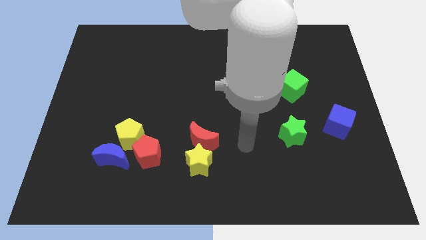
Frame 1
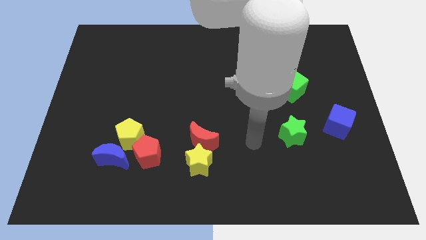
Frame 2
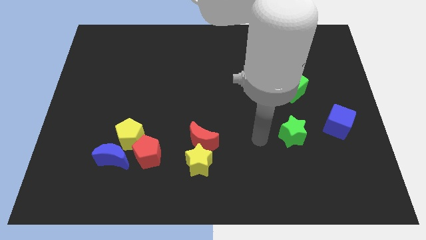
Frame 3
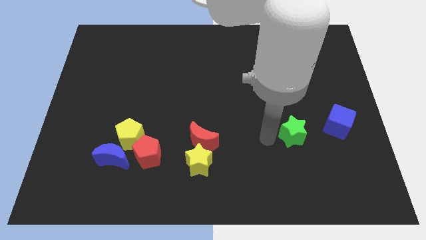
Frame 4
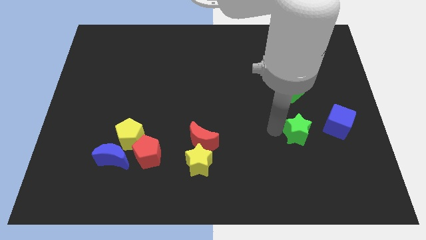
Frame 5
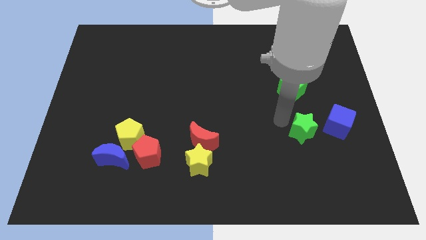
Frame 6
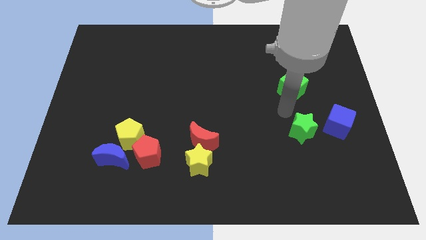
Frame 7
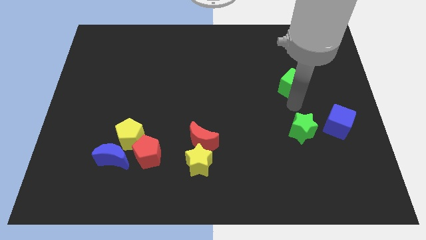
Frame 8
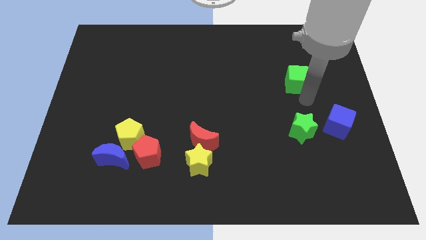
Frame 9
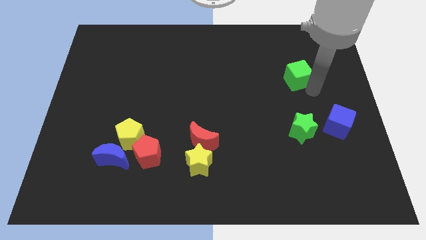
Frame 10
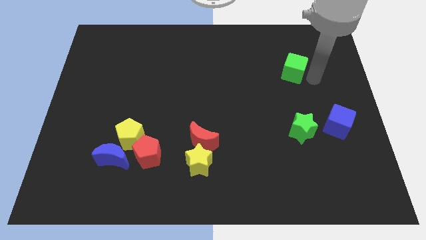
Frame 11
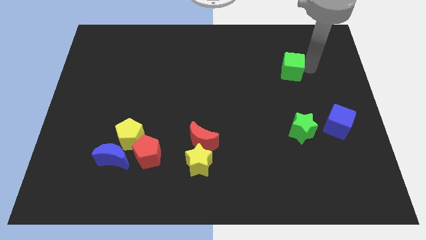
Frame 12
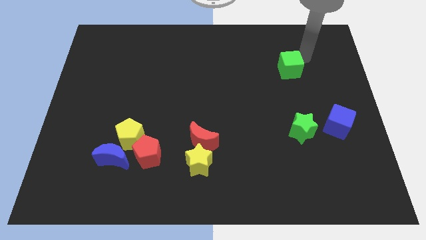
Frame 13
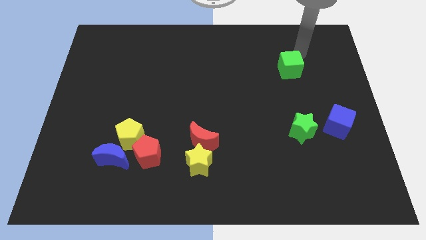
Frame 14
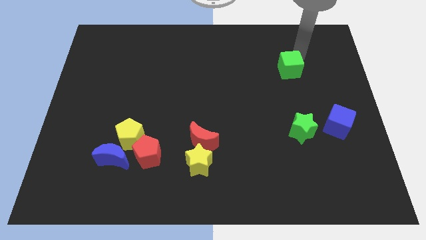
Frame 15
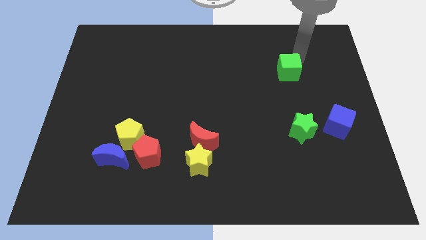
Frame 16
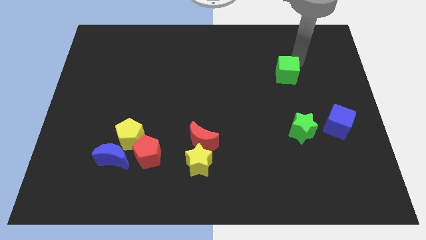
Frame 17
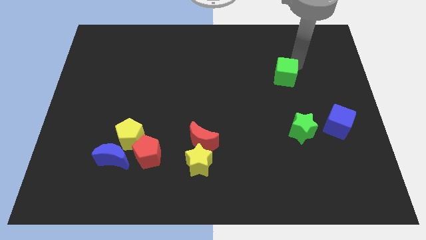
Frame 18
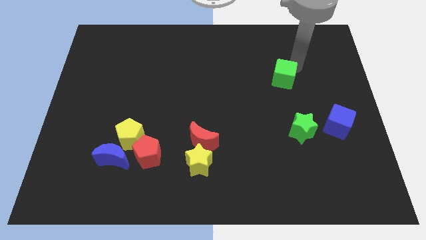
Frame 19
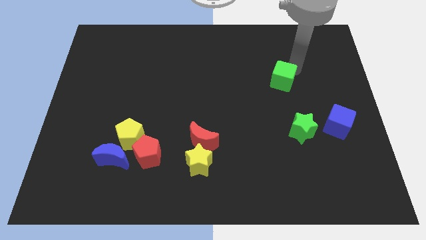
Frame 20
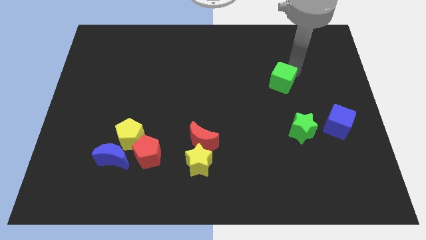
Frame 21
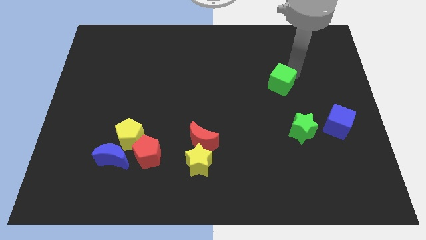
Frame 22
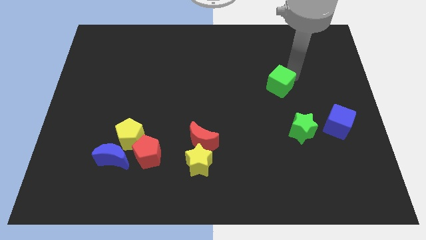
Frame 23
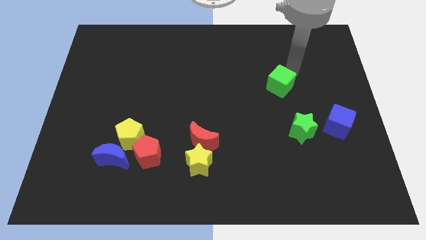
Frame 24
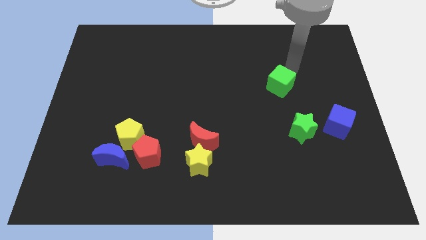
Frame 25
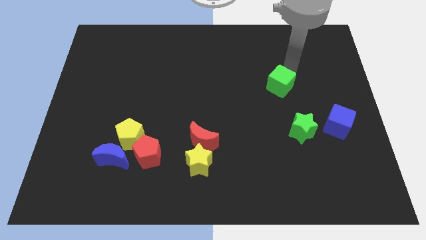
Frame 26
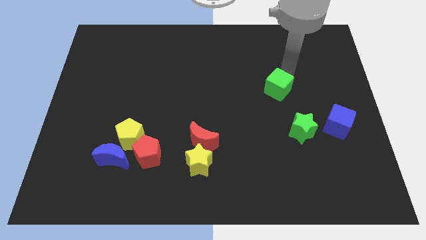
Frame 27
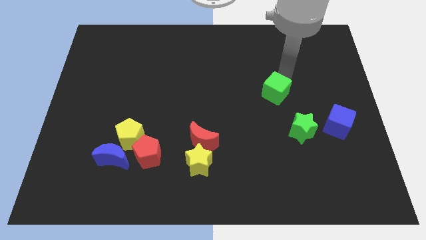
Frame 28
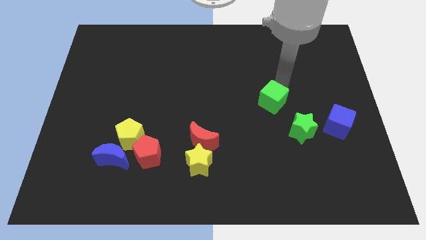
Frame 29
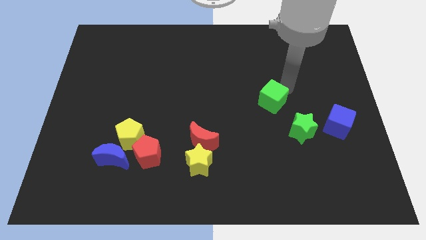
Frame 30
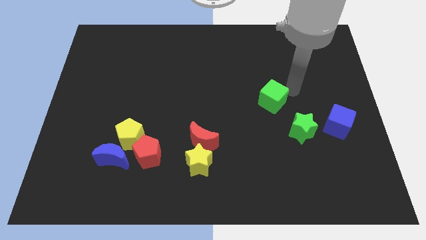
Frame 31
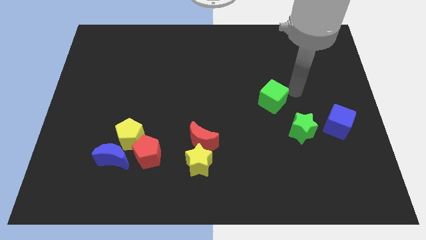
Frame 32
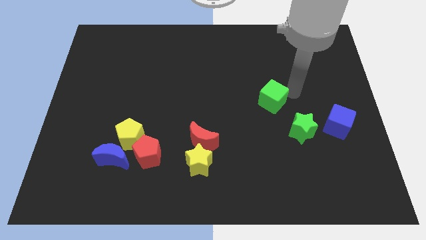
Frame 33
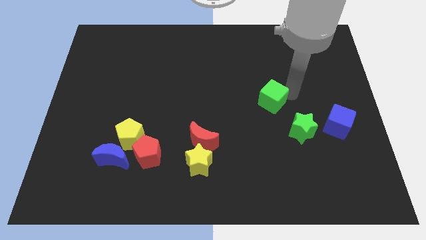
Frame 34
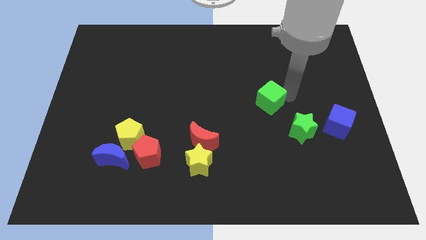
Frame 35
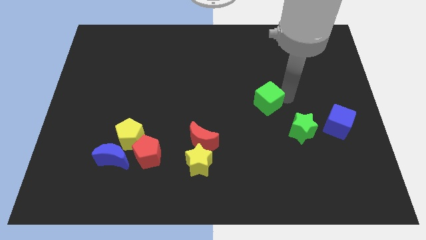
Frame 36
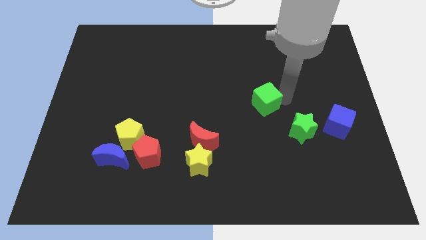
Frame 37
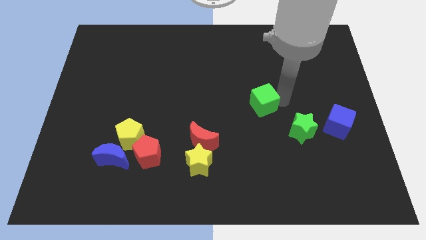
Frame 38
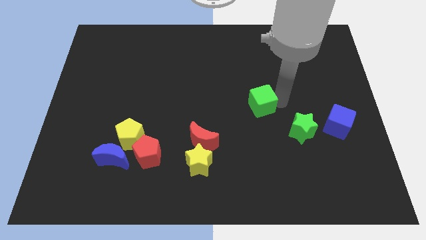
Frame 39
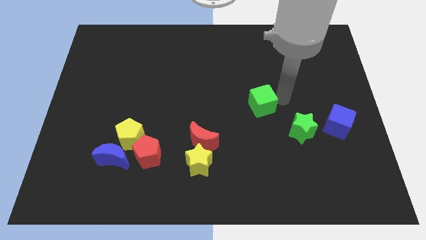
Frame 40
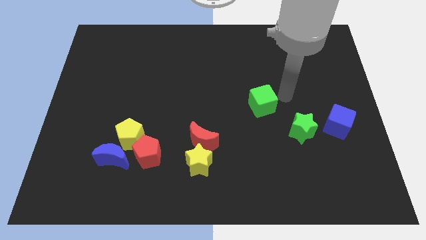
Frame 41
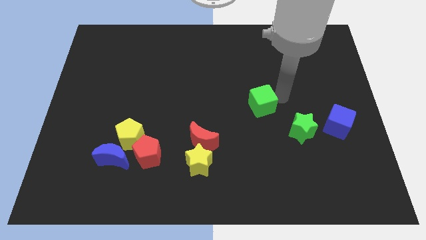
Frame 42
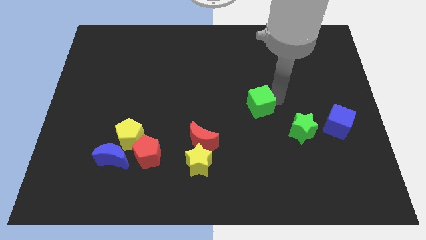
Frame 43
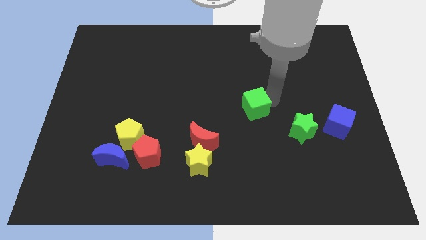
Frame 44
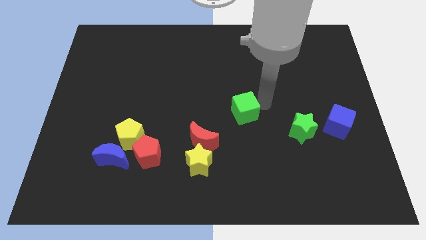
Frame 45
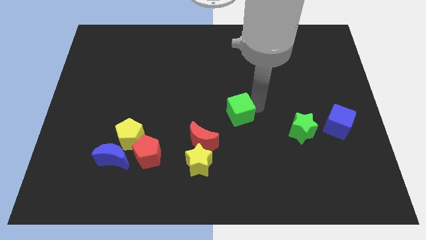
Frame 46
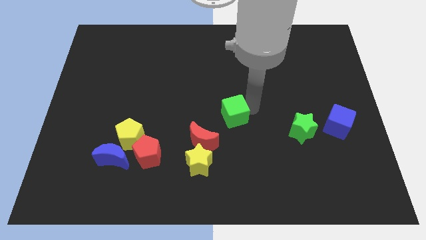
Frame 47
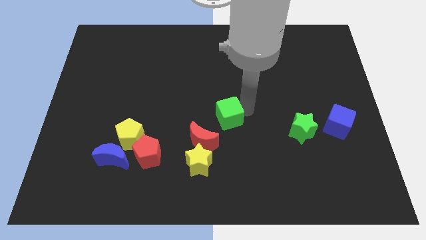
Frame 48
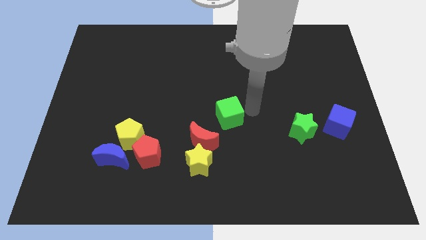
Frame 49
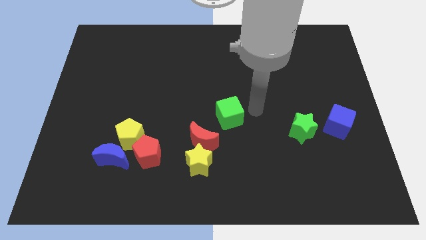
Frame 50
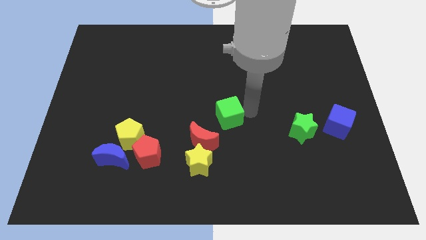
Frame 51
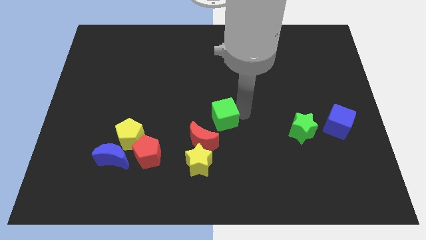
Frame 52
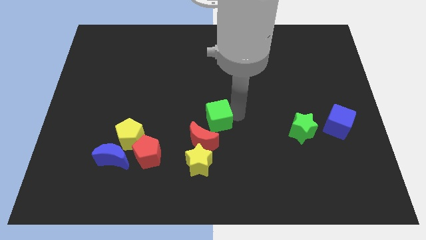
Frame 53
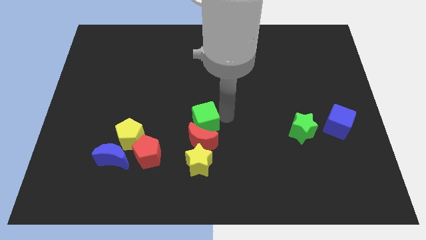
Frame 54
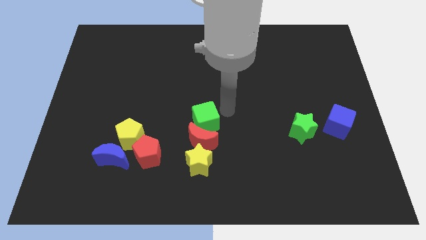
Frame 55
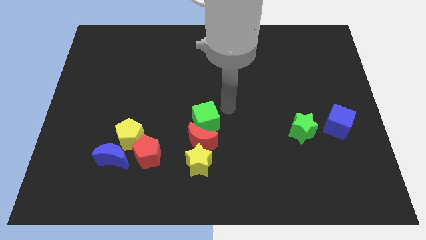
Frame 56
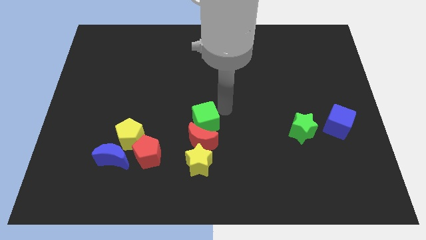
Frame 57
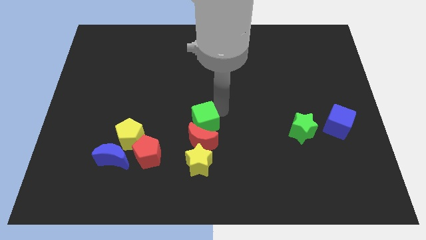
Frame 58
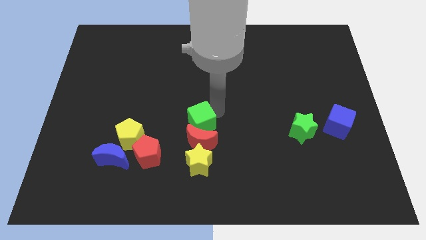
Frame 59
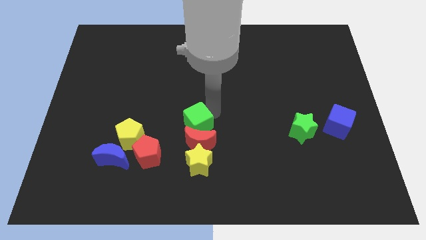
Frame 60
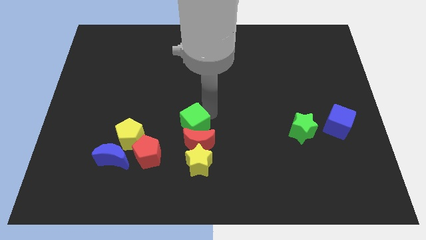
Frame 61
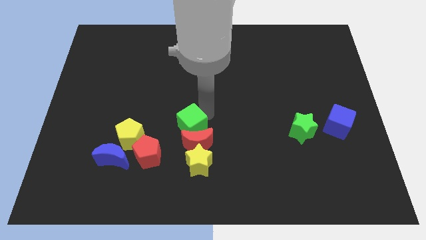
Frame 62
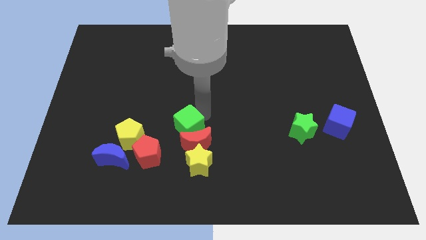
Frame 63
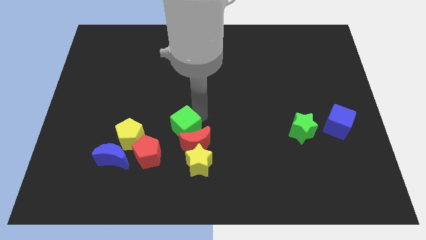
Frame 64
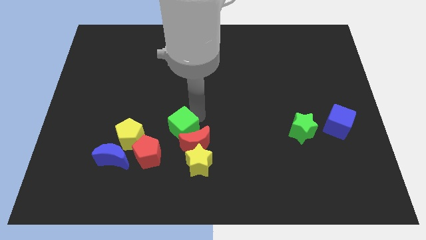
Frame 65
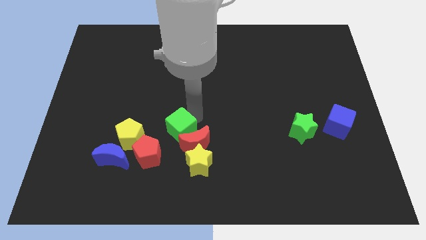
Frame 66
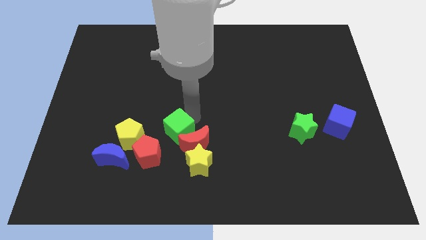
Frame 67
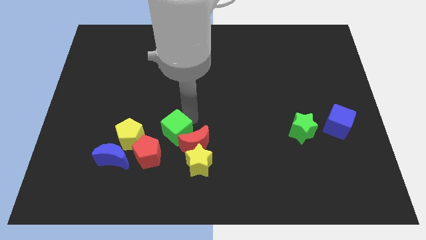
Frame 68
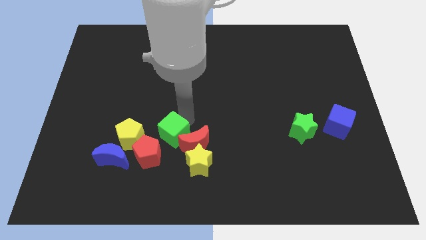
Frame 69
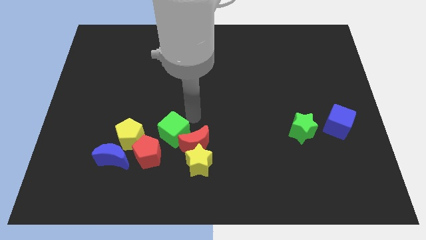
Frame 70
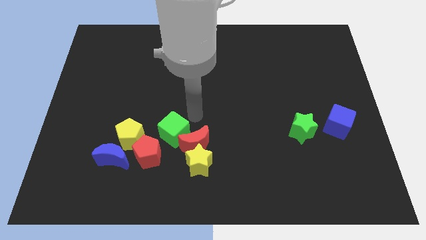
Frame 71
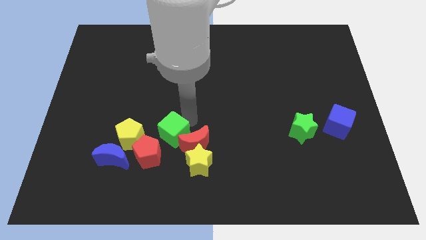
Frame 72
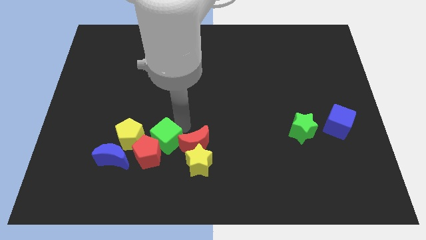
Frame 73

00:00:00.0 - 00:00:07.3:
slide the green cube close to the red pentagon
